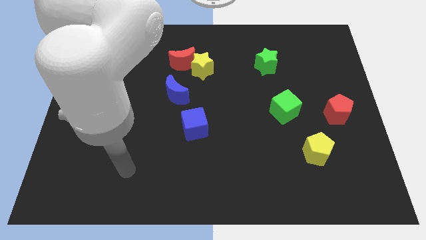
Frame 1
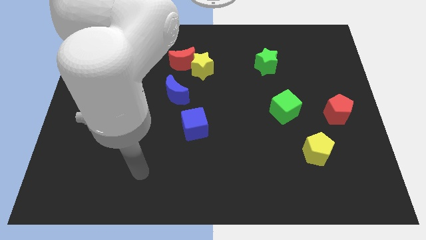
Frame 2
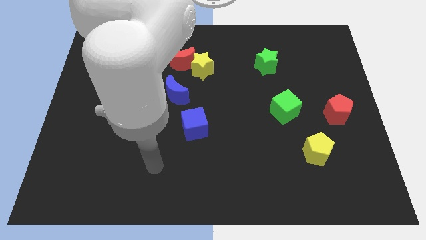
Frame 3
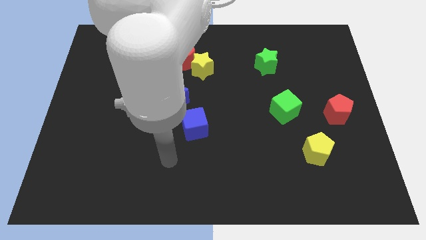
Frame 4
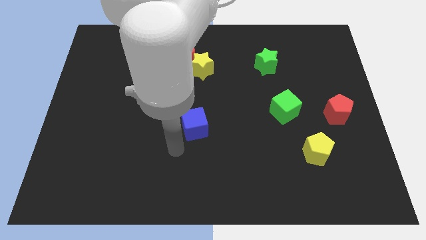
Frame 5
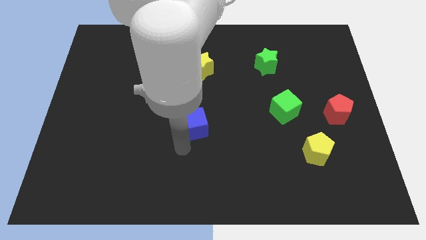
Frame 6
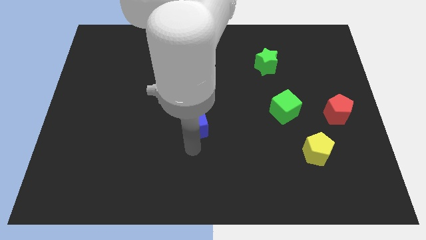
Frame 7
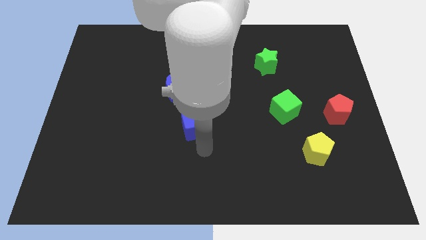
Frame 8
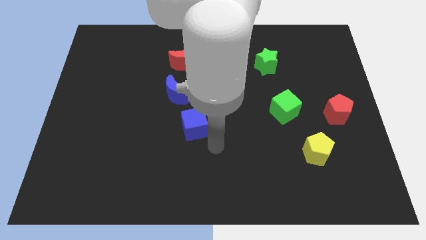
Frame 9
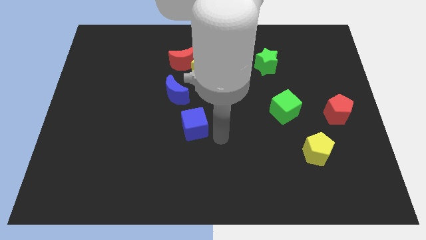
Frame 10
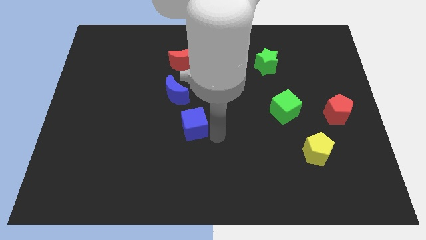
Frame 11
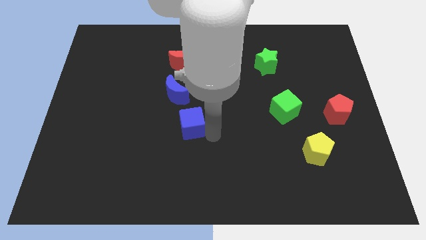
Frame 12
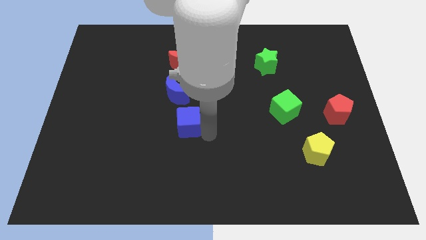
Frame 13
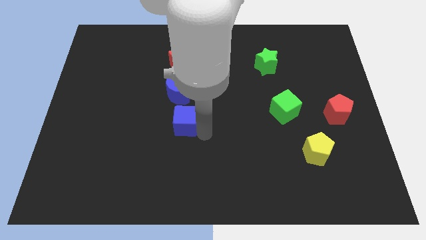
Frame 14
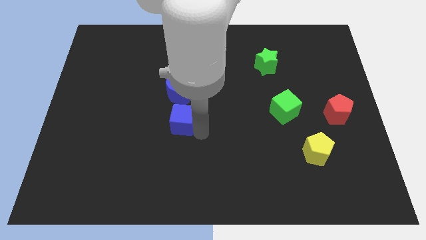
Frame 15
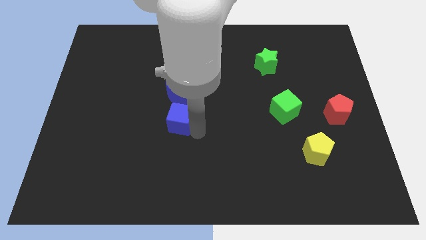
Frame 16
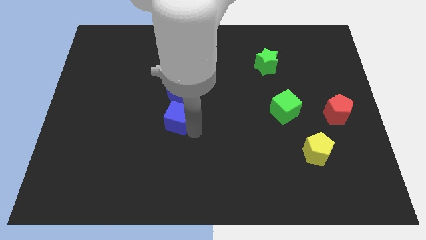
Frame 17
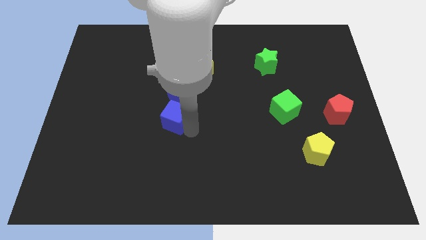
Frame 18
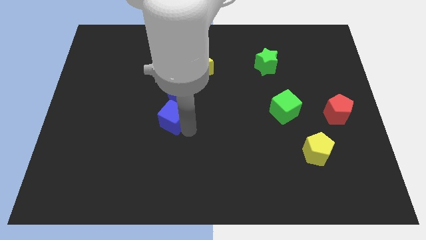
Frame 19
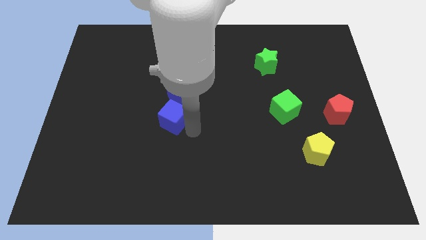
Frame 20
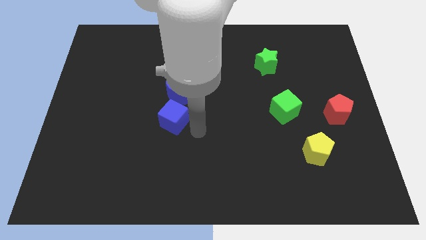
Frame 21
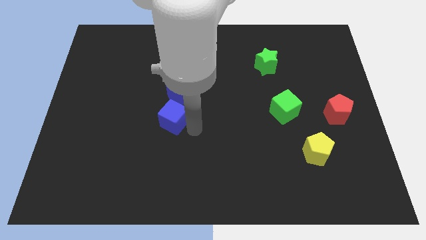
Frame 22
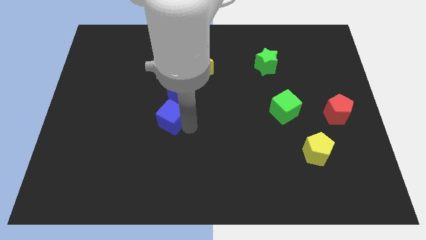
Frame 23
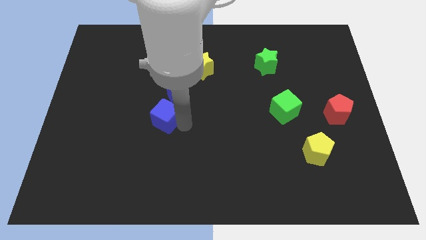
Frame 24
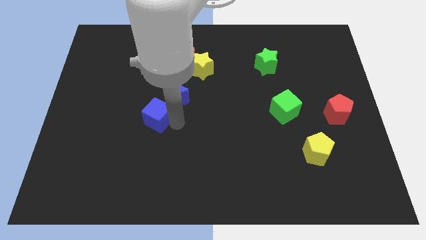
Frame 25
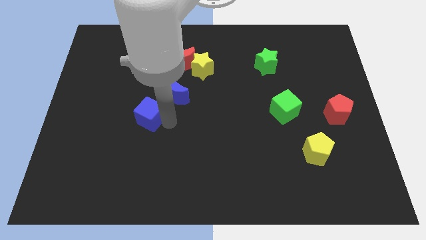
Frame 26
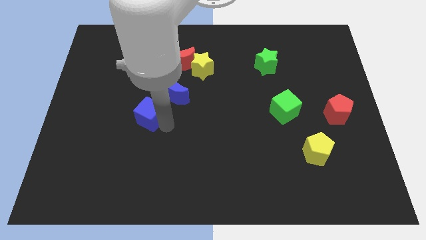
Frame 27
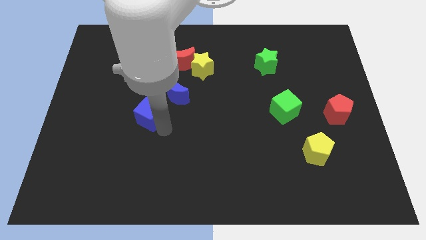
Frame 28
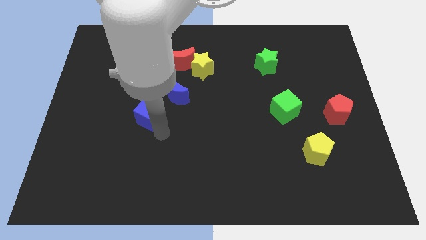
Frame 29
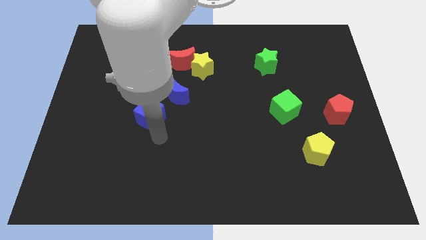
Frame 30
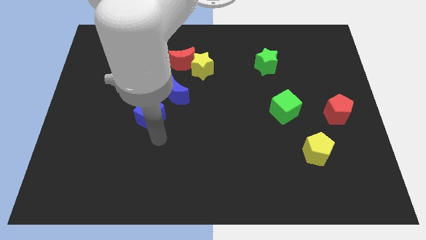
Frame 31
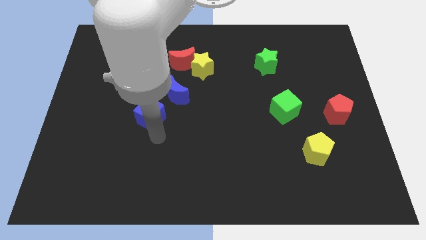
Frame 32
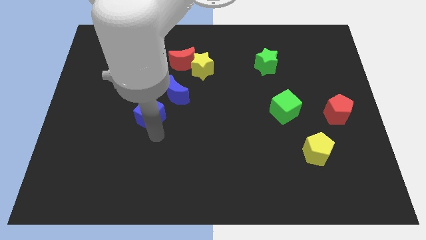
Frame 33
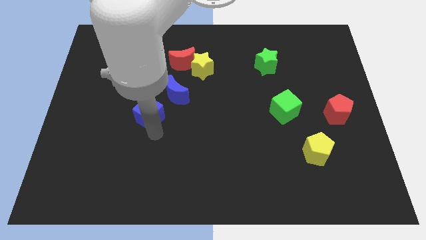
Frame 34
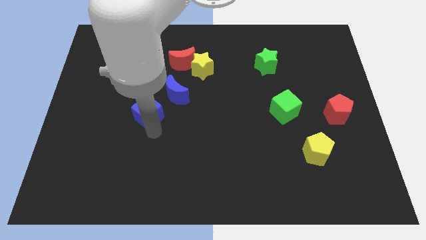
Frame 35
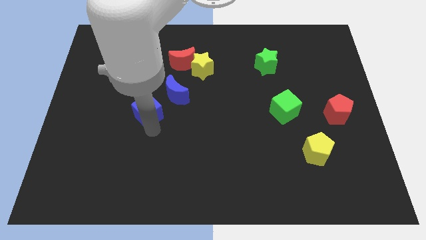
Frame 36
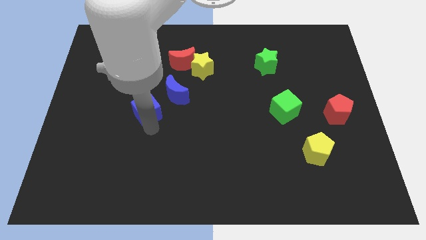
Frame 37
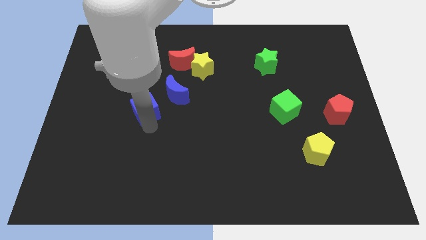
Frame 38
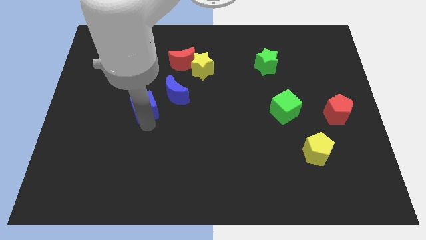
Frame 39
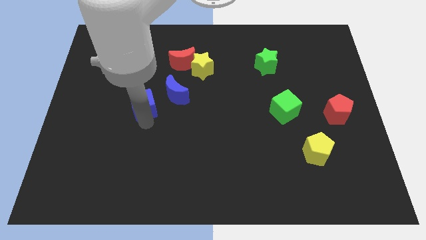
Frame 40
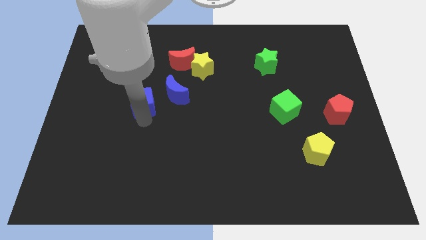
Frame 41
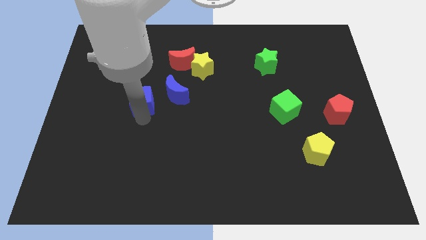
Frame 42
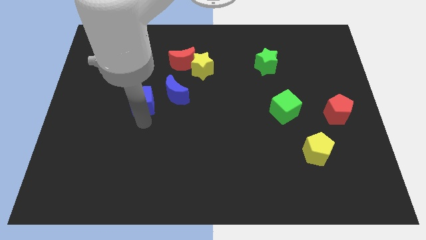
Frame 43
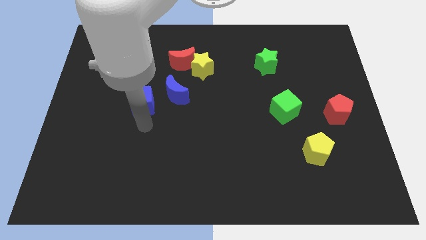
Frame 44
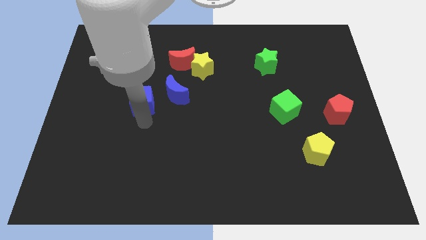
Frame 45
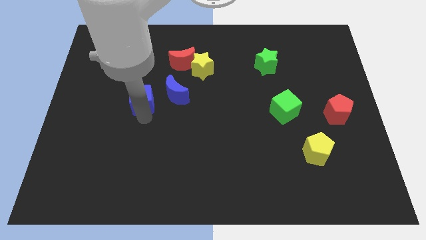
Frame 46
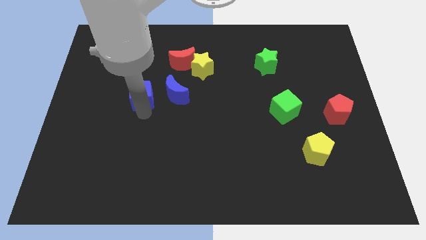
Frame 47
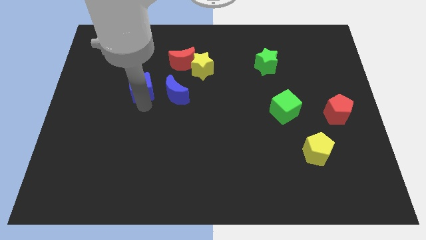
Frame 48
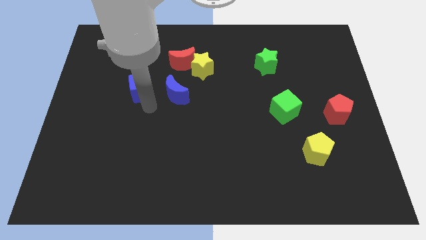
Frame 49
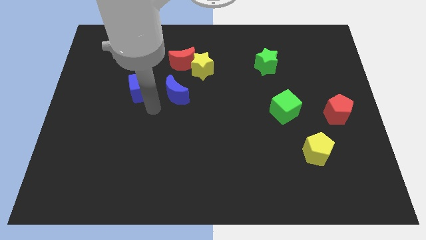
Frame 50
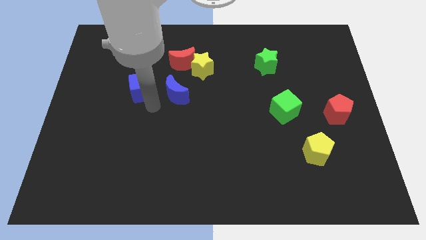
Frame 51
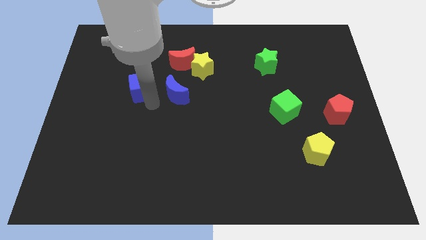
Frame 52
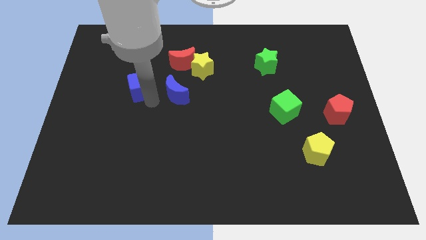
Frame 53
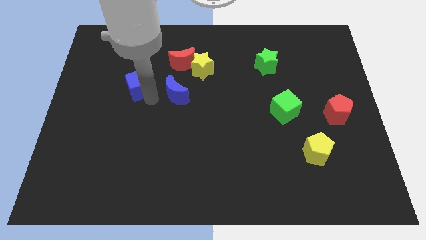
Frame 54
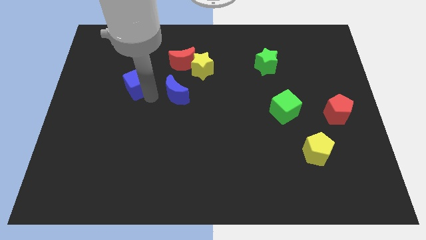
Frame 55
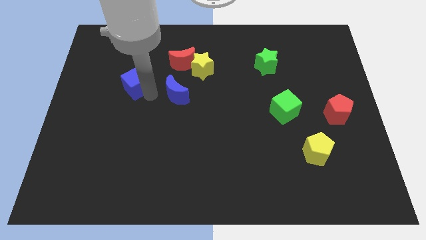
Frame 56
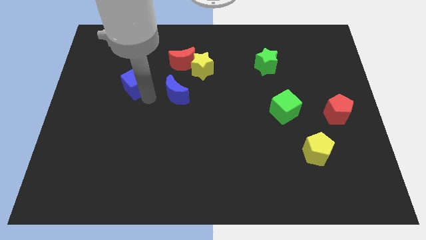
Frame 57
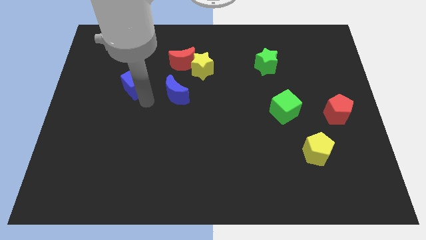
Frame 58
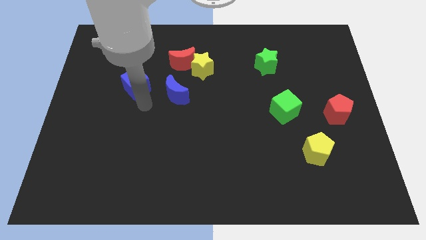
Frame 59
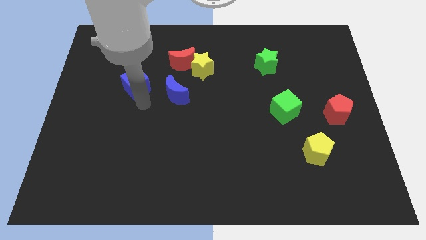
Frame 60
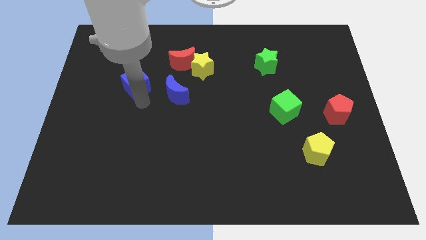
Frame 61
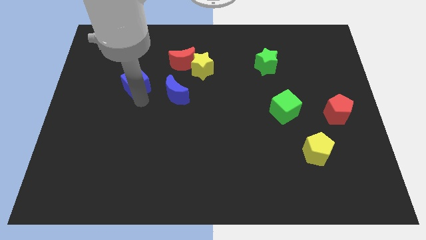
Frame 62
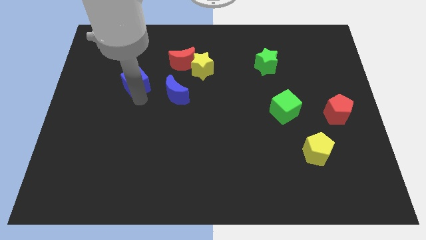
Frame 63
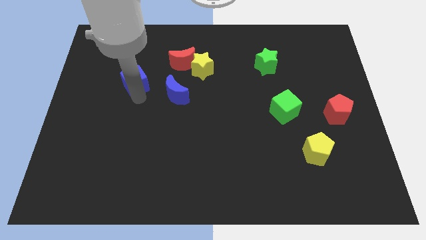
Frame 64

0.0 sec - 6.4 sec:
slide the blue cube up and then to the left

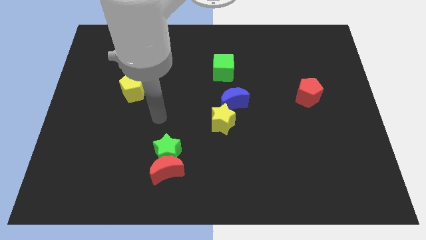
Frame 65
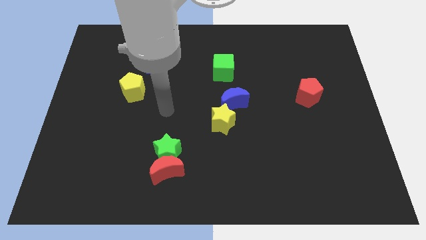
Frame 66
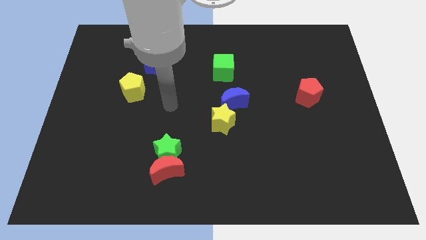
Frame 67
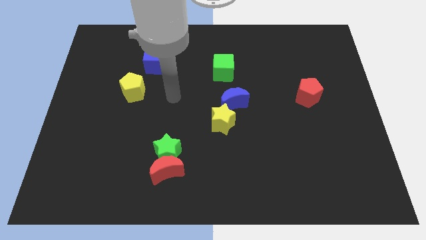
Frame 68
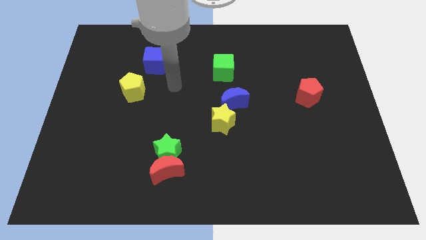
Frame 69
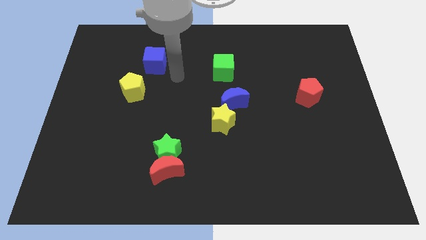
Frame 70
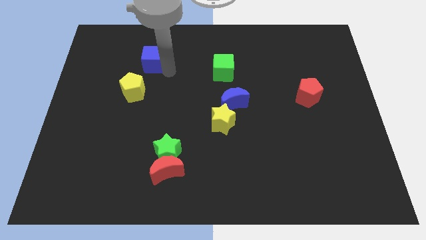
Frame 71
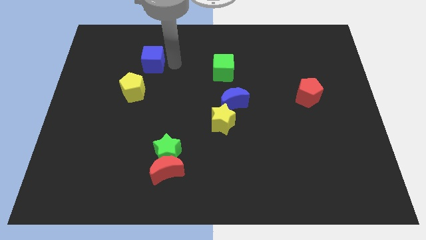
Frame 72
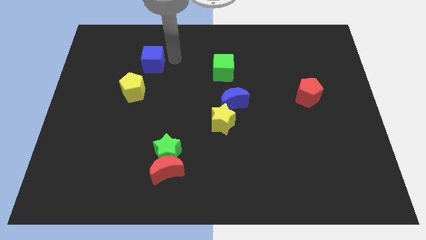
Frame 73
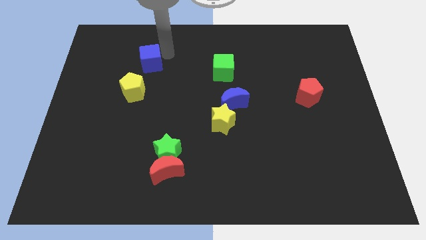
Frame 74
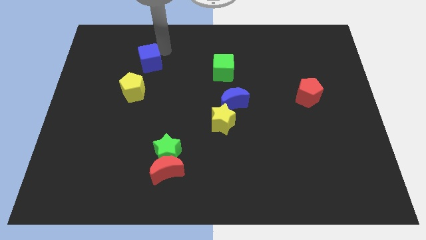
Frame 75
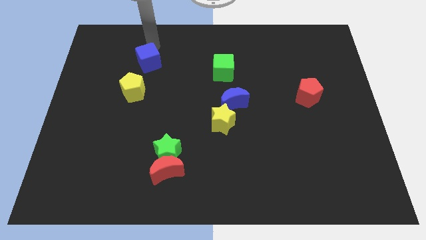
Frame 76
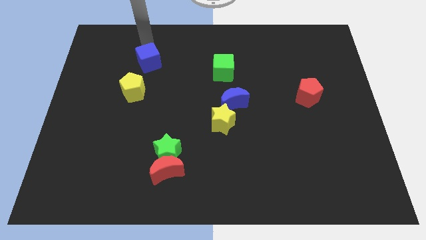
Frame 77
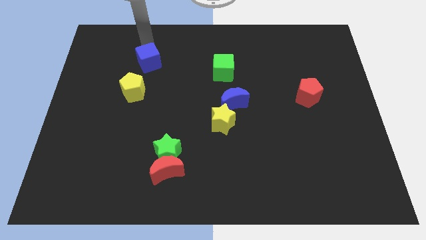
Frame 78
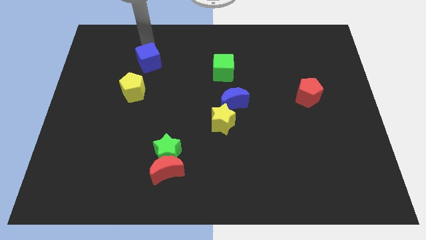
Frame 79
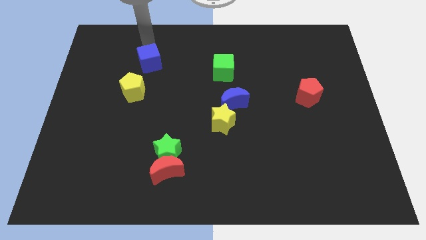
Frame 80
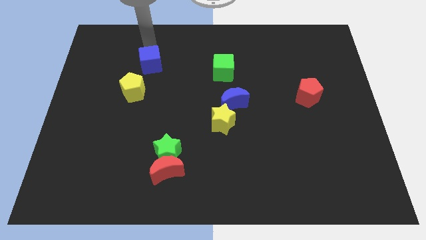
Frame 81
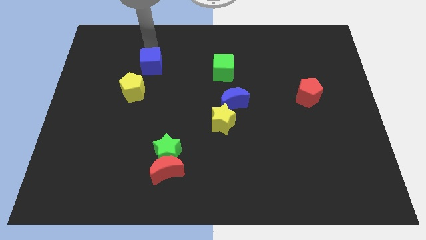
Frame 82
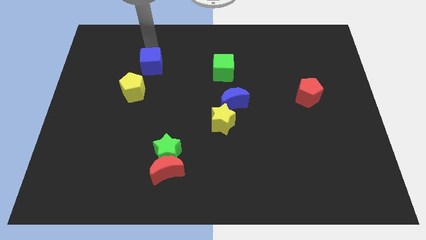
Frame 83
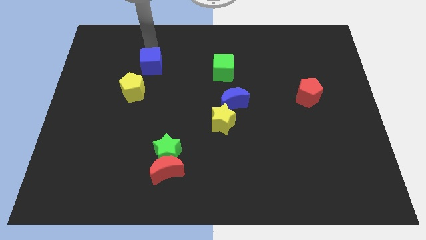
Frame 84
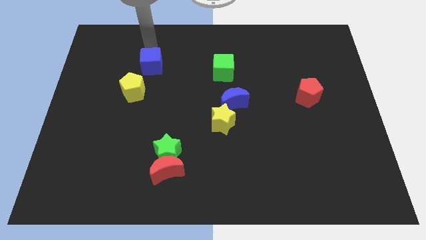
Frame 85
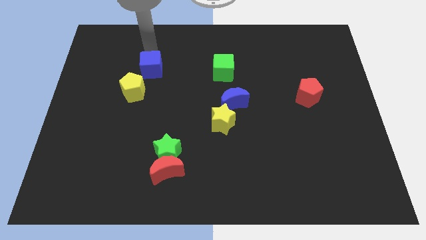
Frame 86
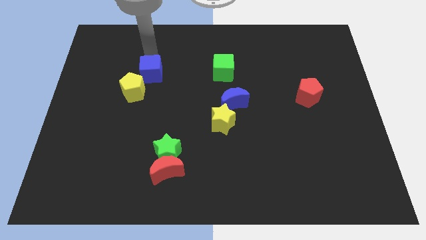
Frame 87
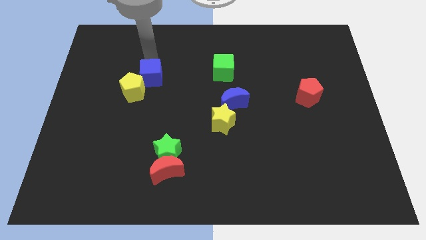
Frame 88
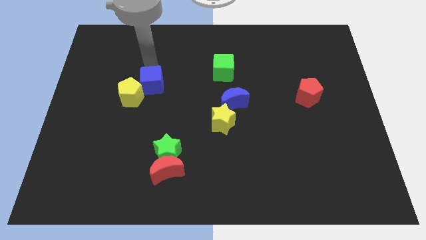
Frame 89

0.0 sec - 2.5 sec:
push the blue cube a bit downwards
